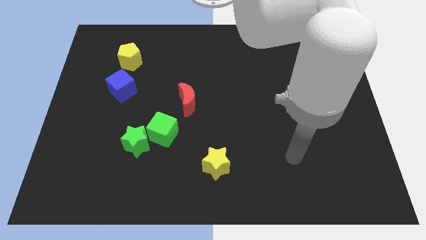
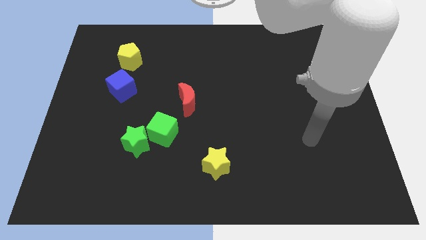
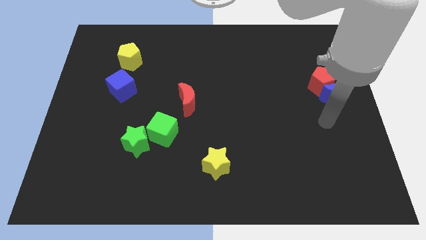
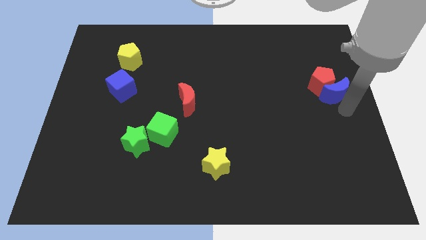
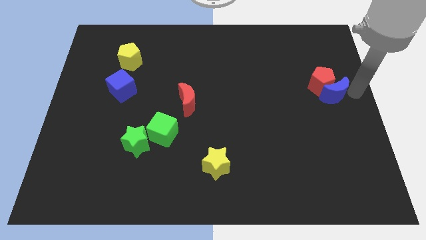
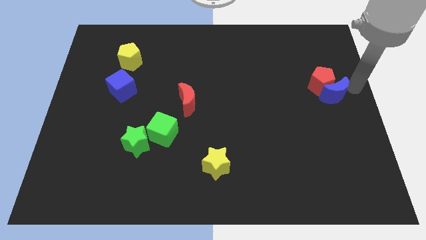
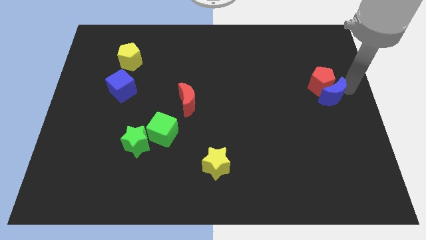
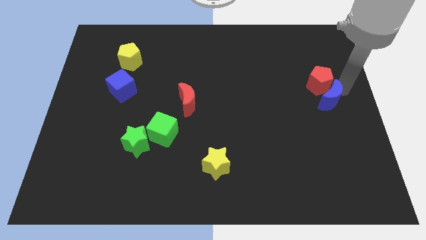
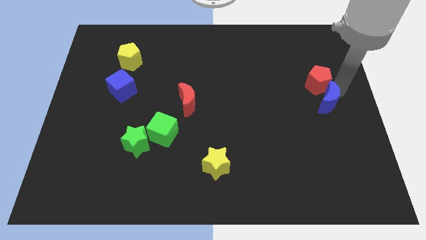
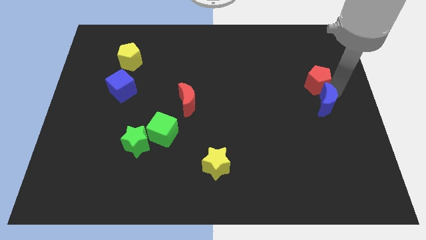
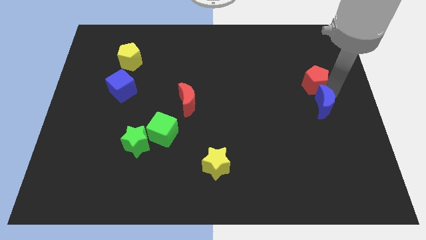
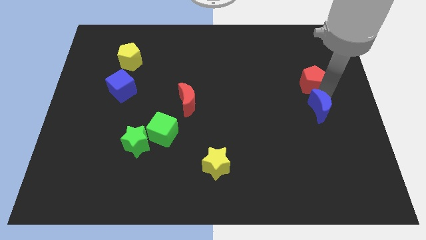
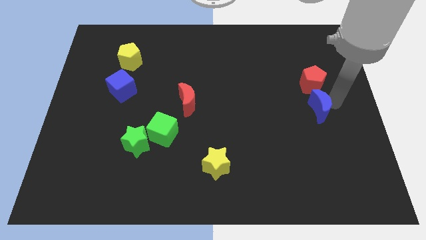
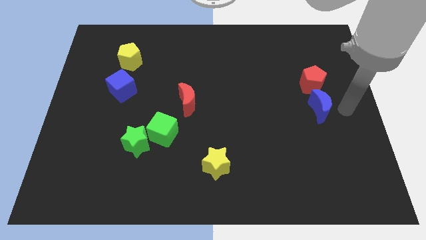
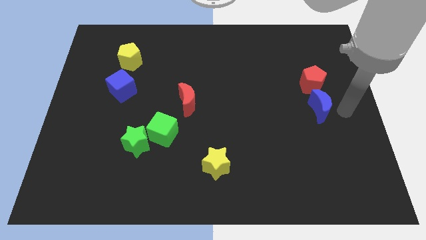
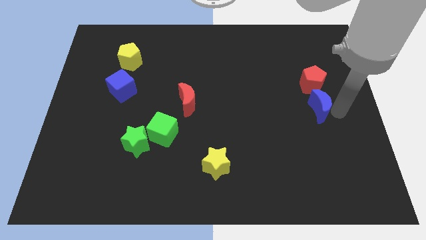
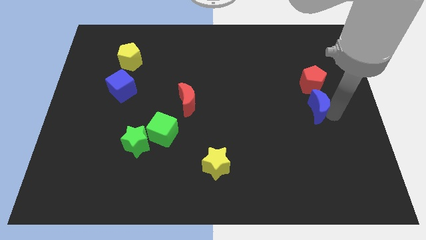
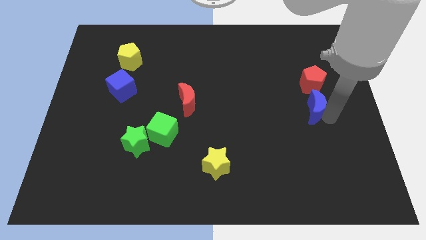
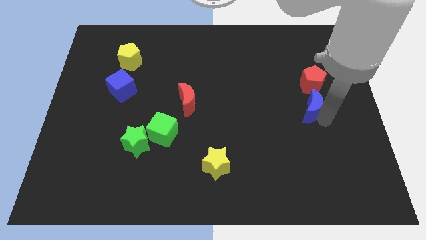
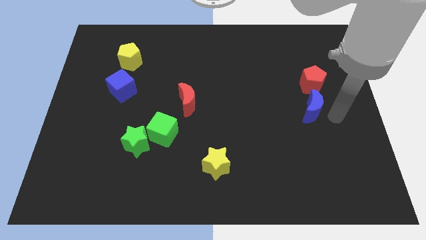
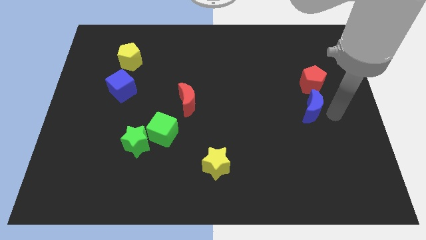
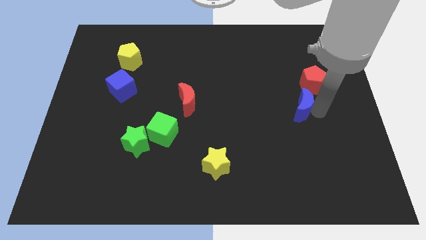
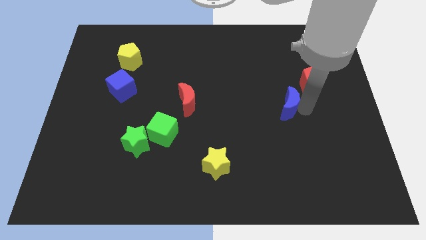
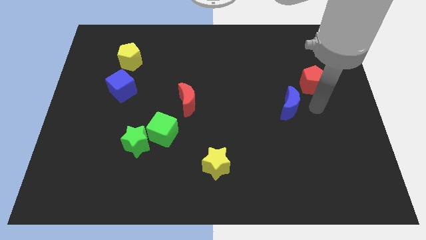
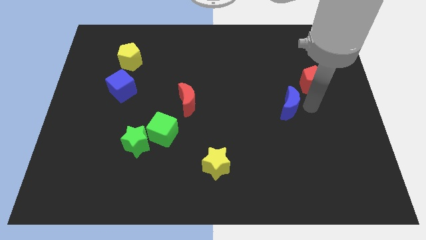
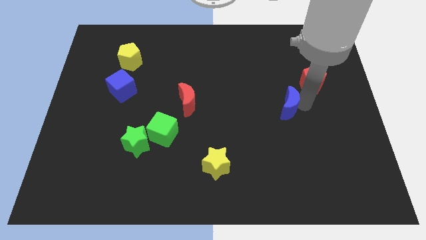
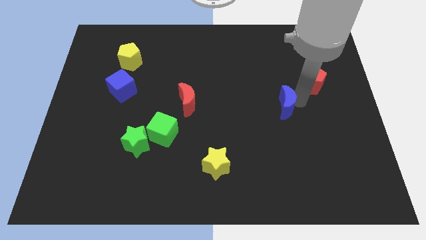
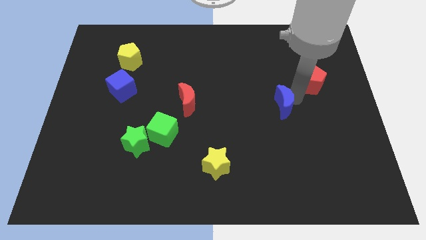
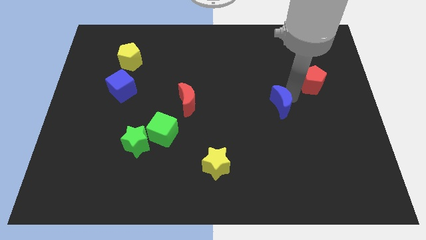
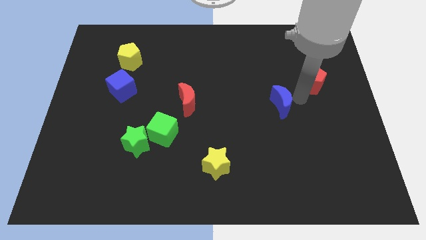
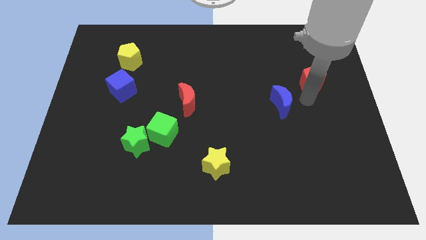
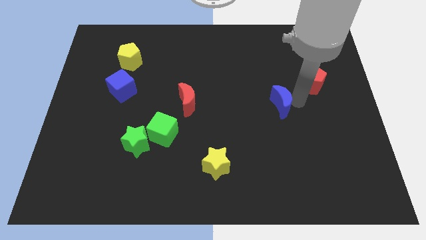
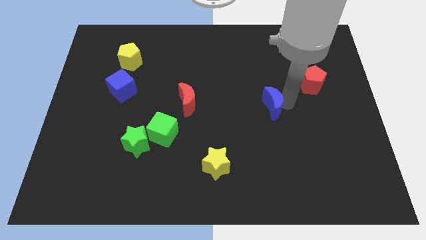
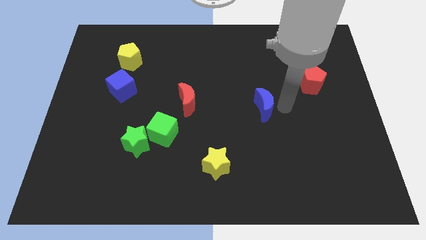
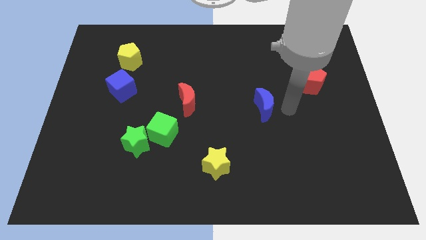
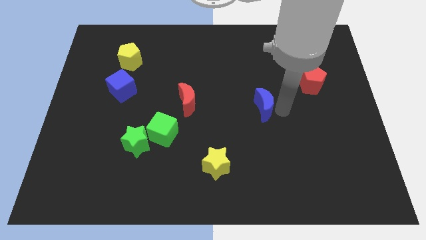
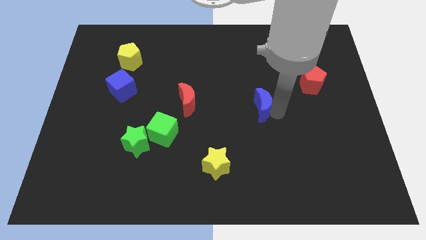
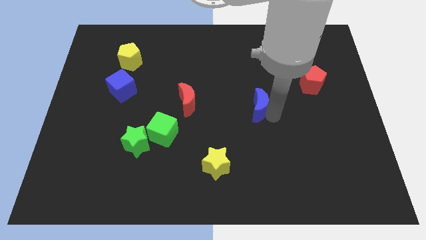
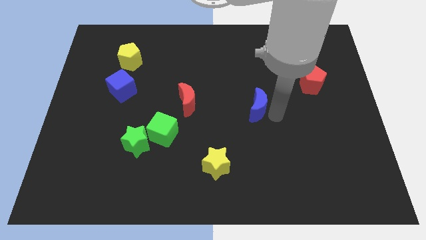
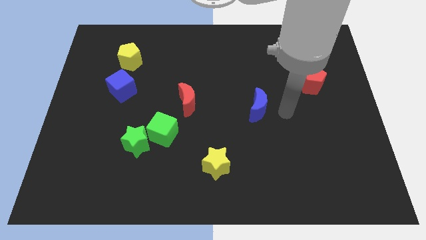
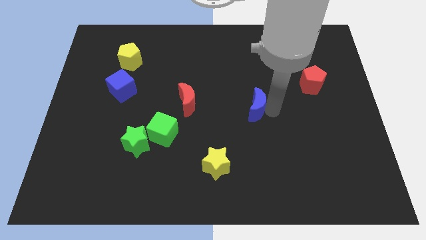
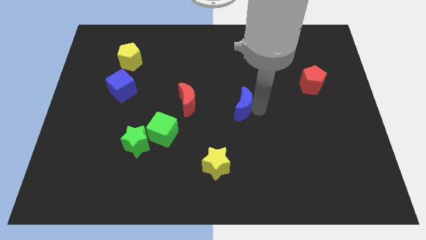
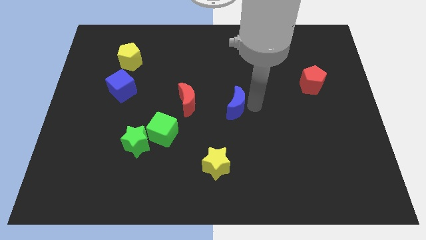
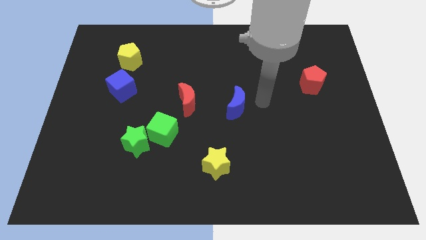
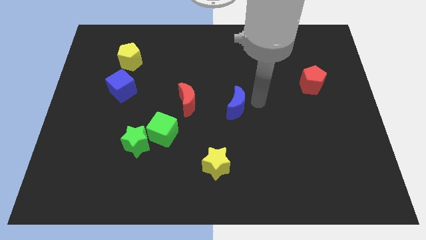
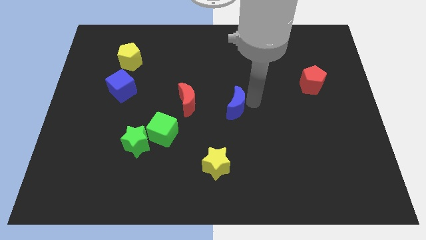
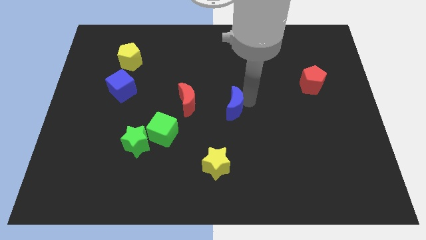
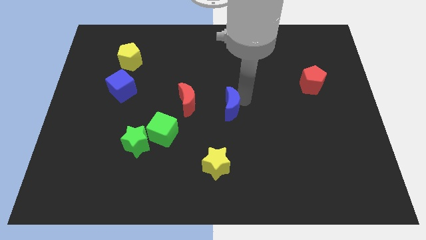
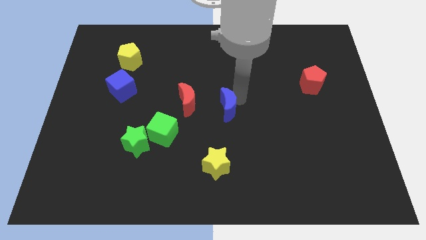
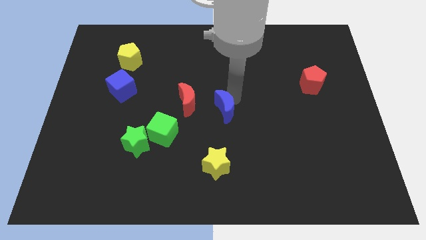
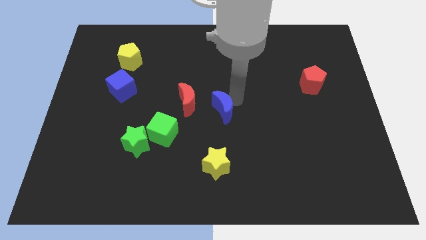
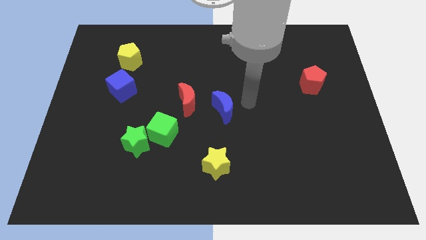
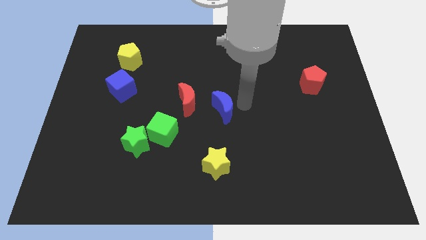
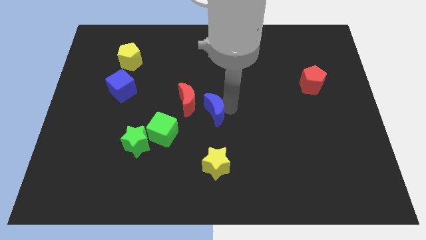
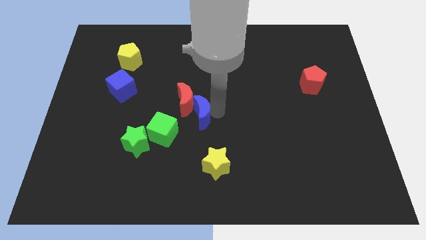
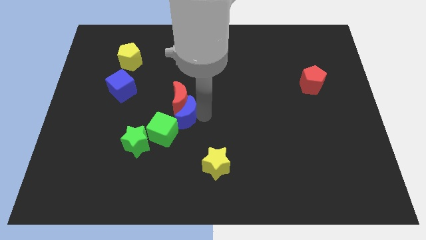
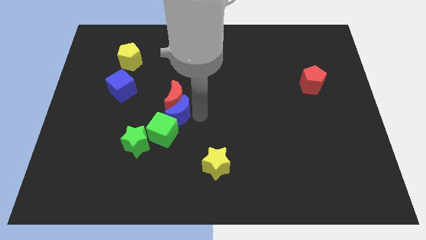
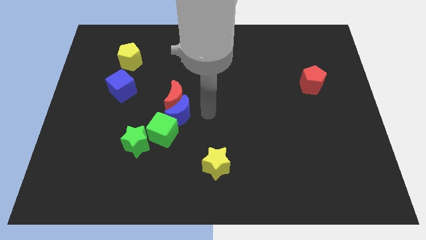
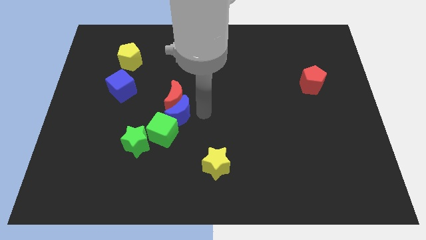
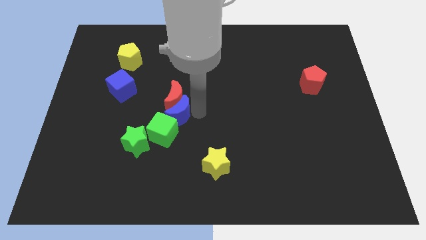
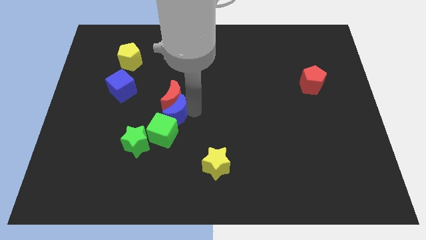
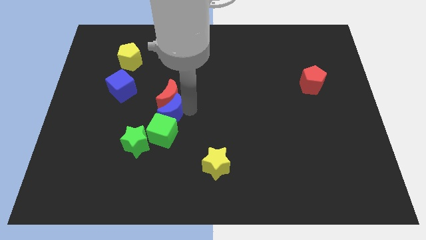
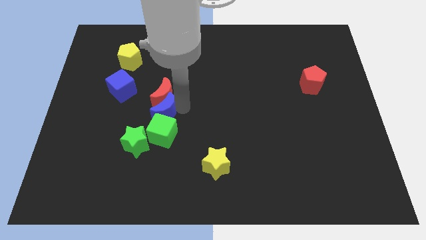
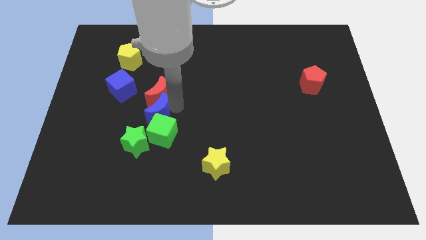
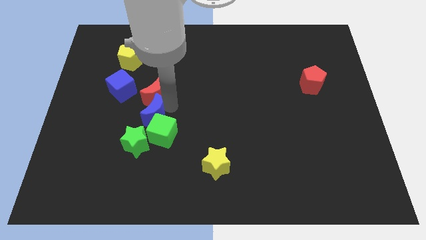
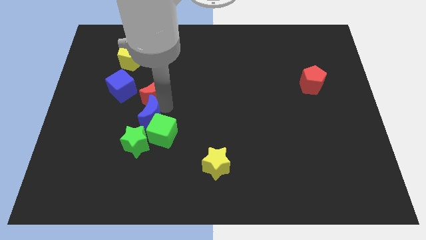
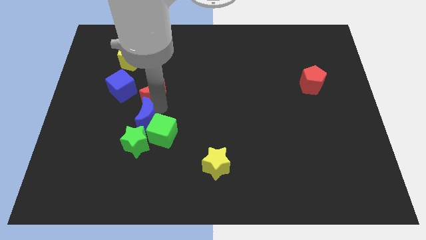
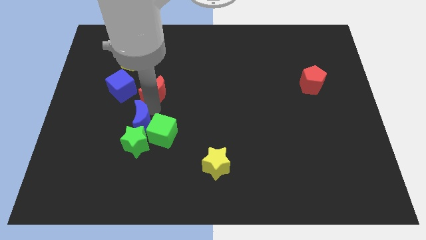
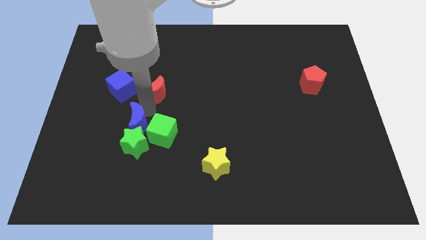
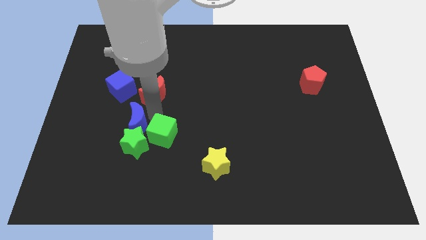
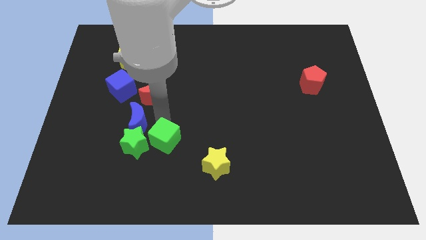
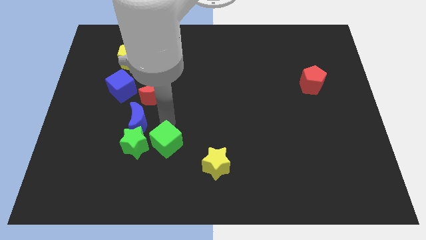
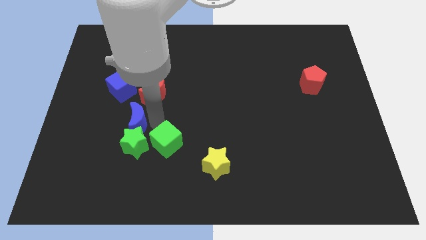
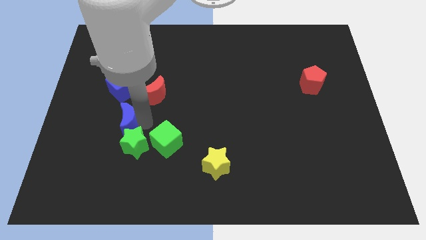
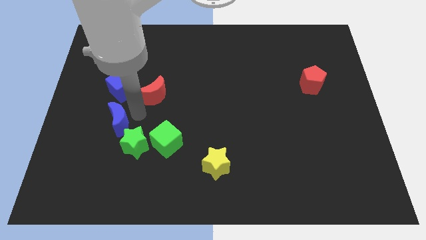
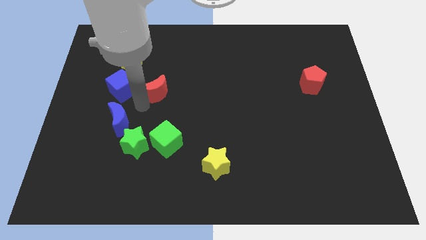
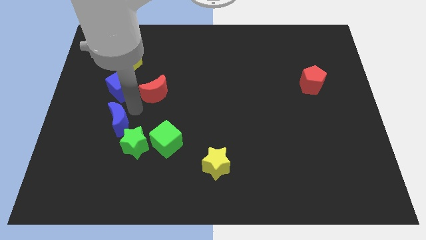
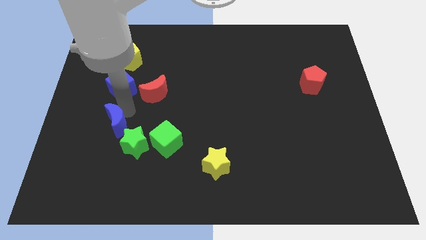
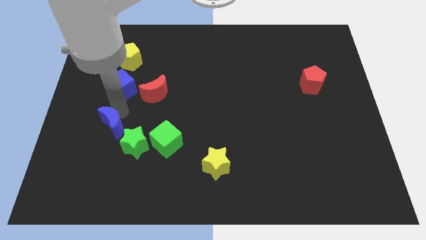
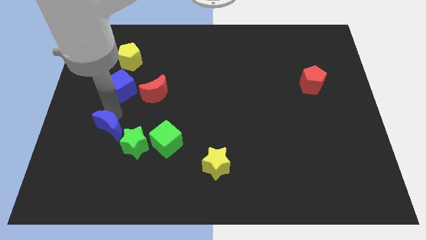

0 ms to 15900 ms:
put the blue moon left of the green star
